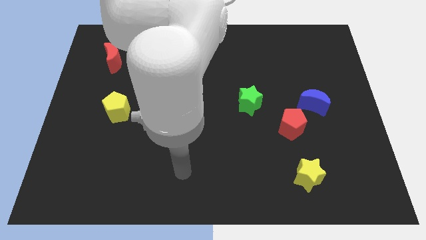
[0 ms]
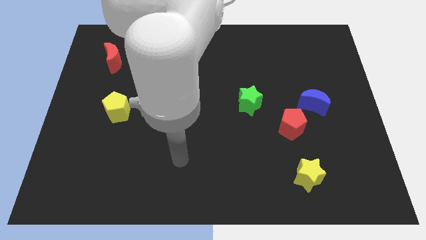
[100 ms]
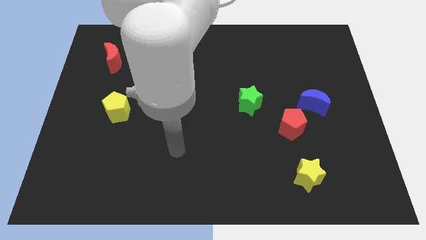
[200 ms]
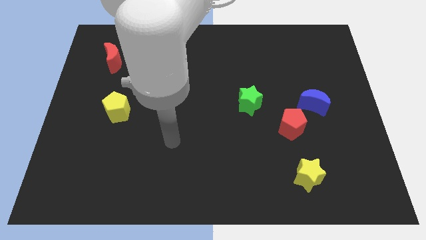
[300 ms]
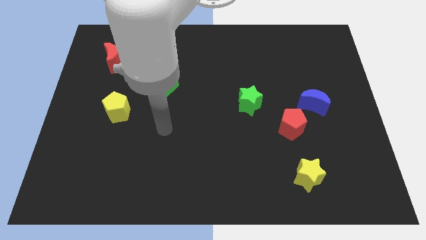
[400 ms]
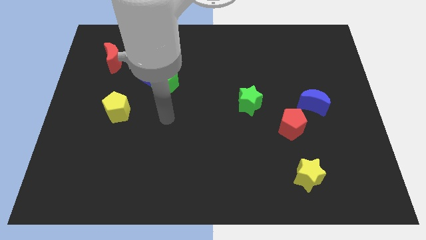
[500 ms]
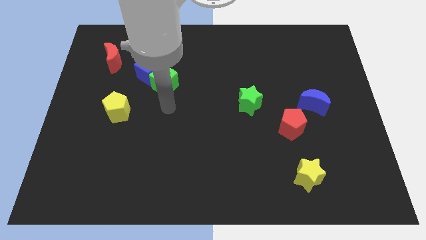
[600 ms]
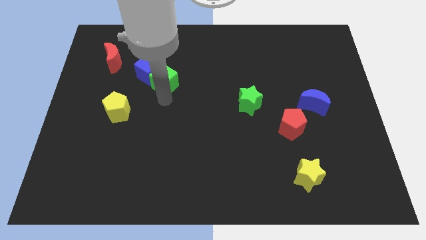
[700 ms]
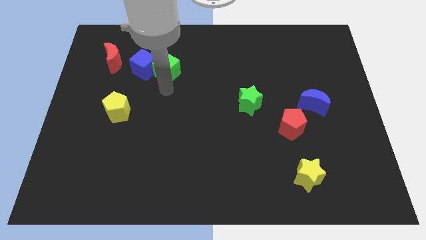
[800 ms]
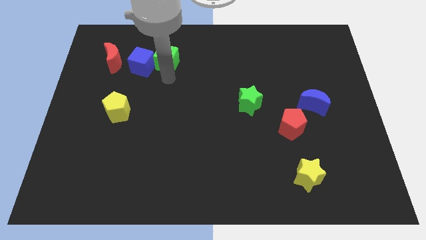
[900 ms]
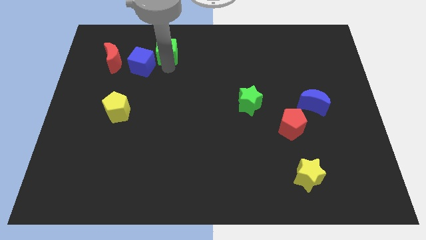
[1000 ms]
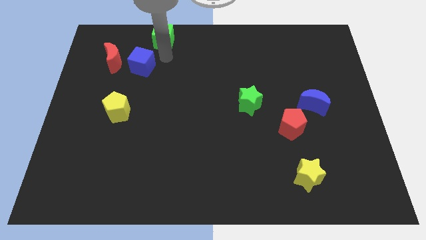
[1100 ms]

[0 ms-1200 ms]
separate the blue cube from the green cube

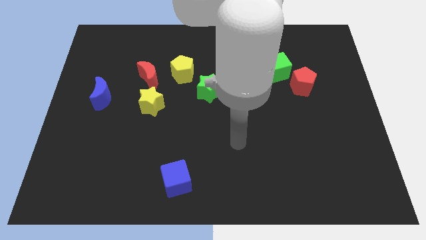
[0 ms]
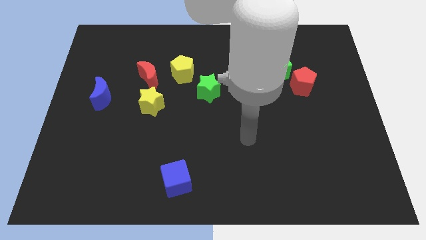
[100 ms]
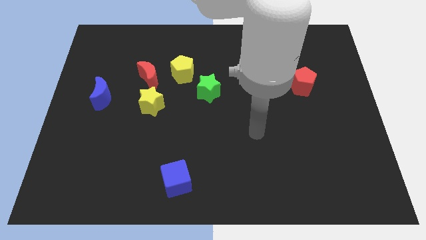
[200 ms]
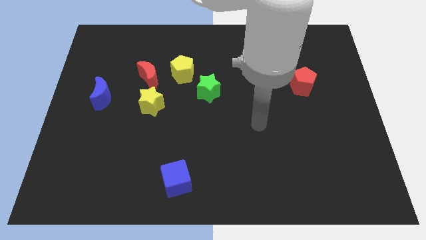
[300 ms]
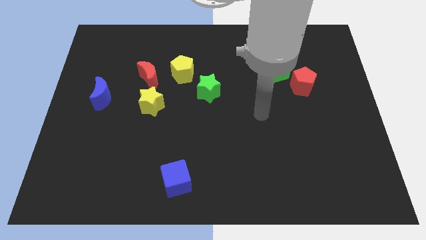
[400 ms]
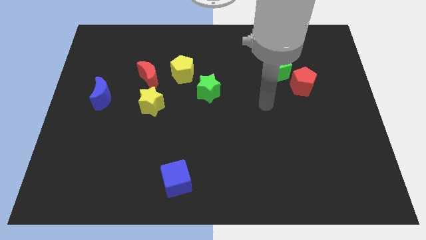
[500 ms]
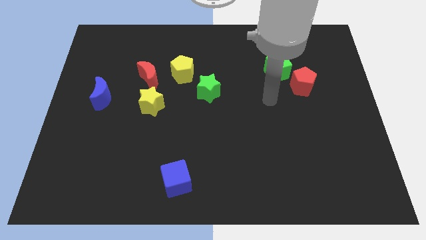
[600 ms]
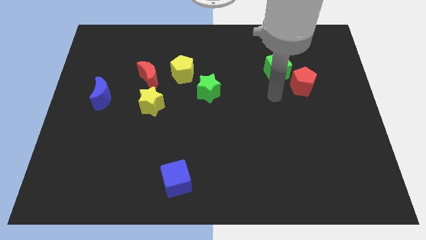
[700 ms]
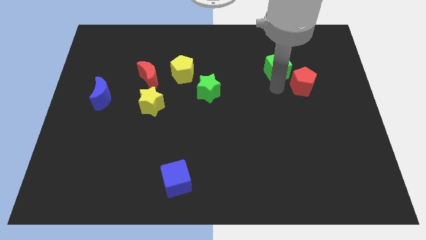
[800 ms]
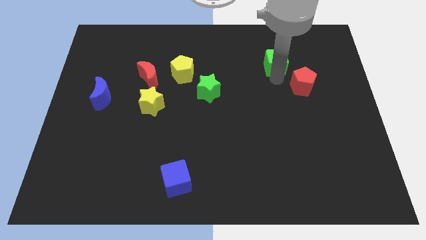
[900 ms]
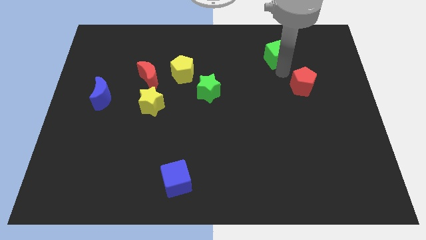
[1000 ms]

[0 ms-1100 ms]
separate the red pentagon from the green cube

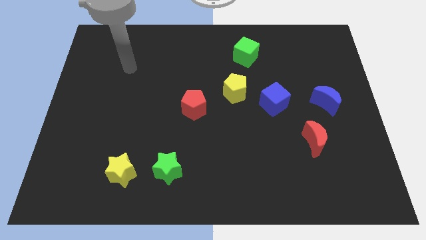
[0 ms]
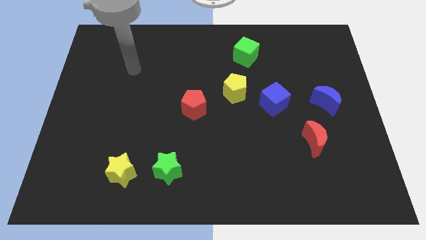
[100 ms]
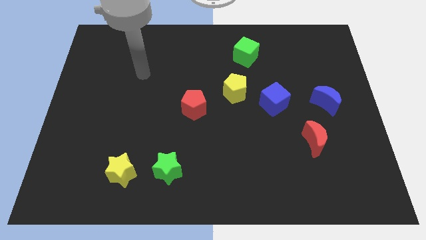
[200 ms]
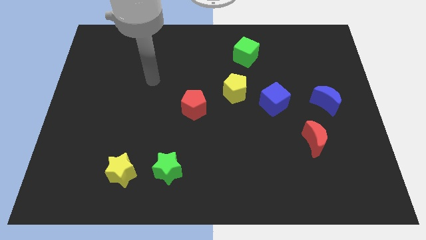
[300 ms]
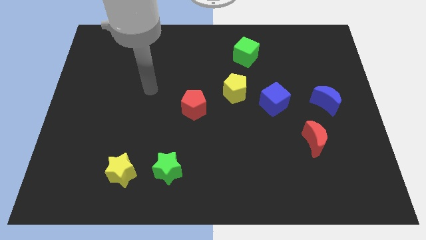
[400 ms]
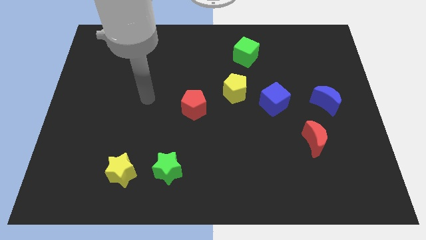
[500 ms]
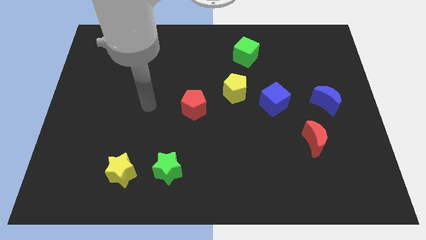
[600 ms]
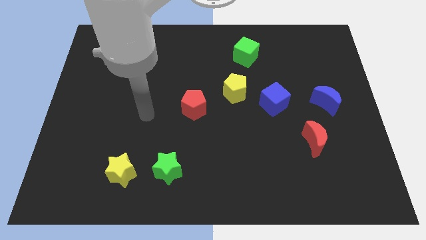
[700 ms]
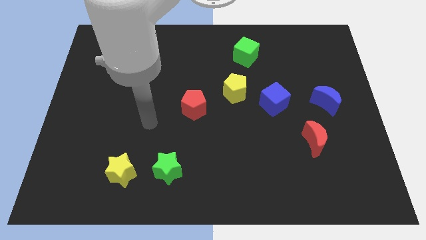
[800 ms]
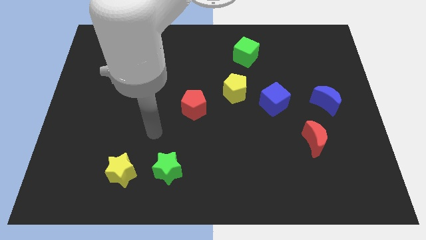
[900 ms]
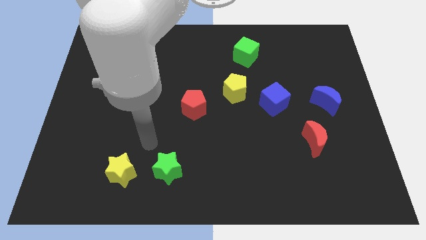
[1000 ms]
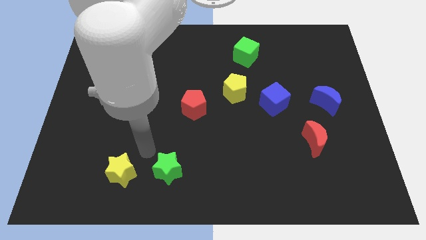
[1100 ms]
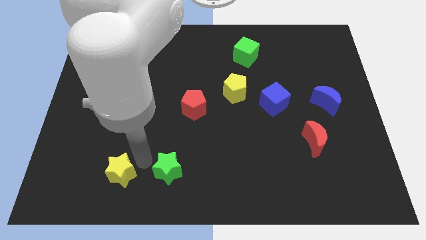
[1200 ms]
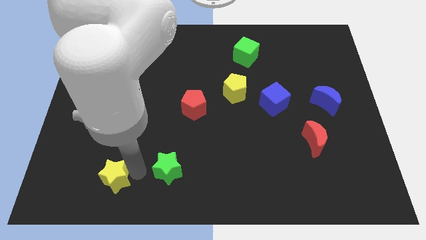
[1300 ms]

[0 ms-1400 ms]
move the green star away from the yellow star

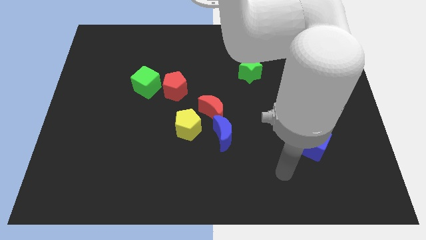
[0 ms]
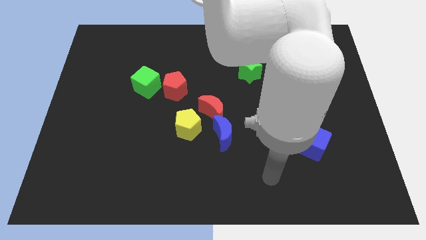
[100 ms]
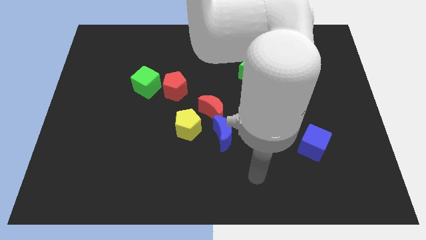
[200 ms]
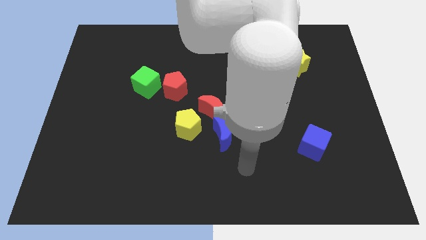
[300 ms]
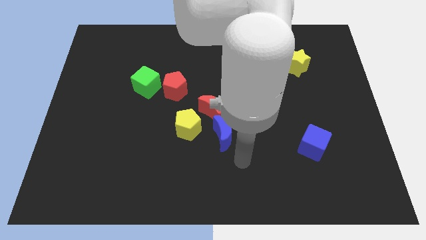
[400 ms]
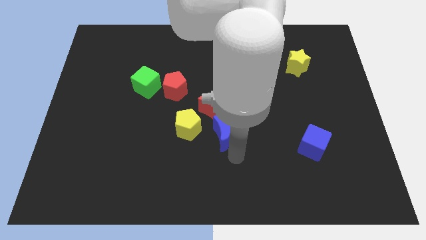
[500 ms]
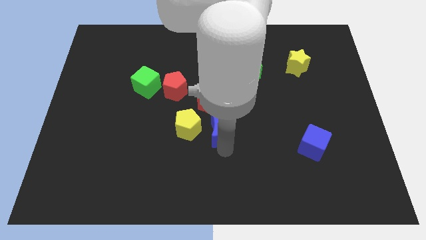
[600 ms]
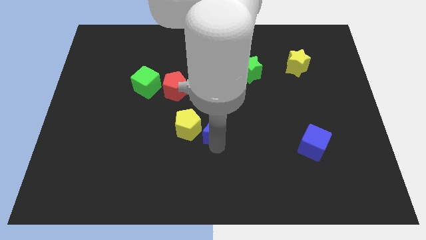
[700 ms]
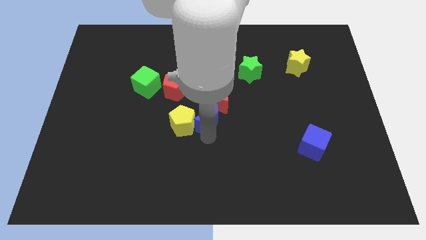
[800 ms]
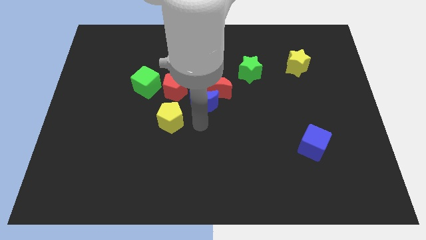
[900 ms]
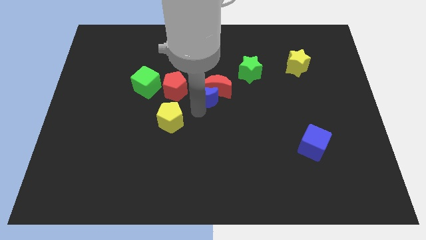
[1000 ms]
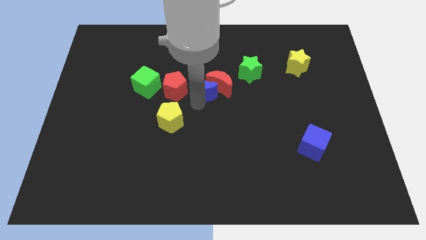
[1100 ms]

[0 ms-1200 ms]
move the red moon away from the blue moon and yellow pentagon

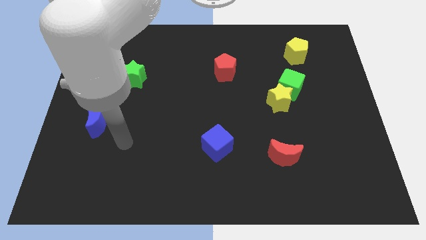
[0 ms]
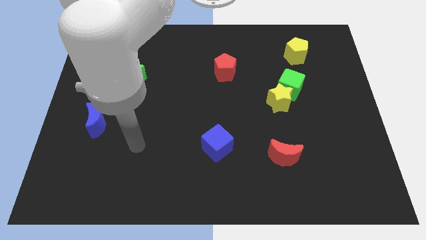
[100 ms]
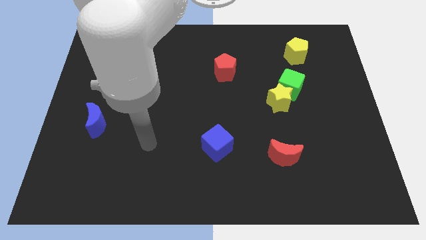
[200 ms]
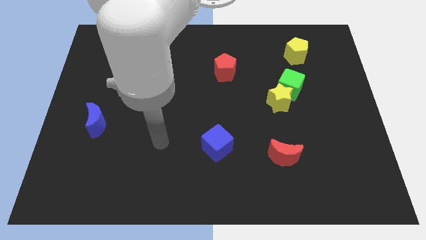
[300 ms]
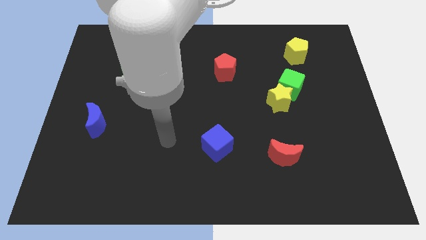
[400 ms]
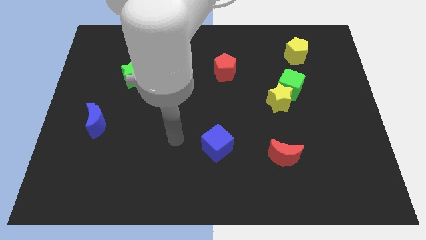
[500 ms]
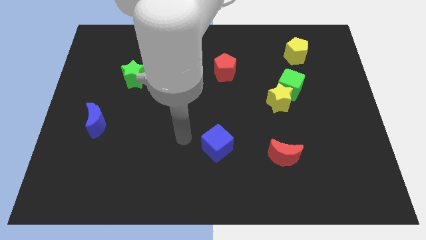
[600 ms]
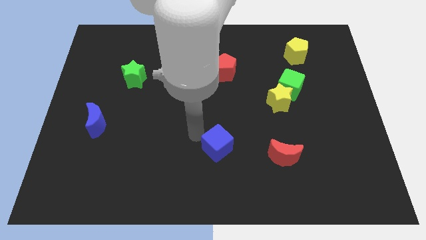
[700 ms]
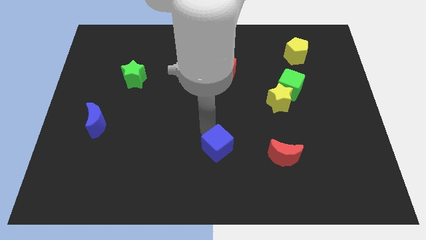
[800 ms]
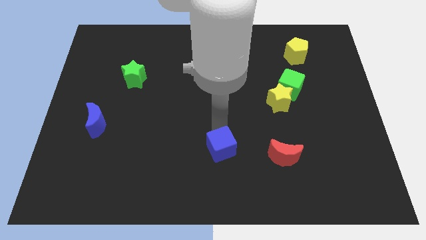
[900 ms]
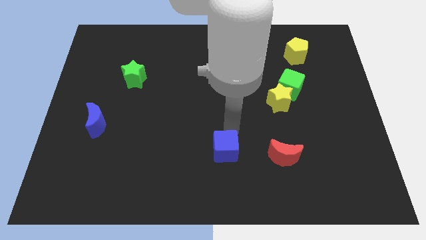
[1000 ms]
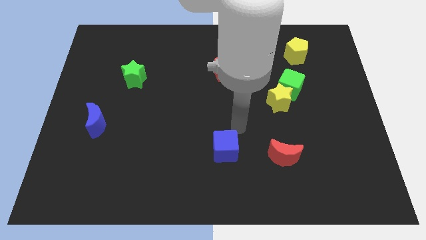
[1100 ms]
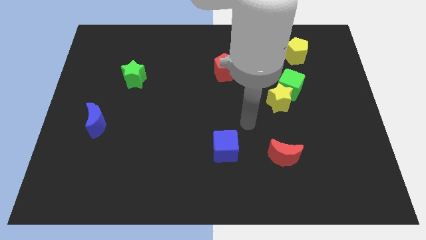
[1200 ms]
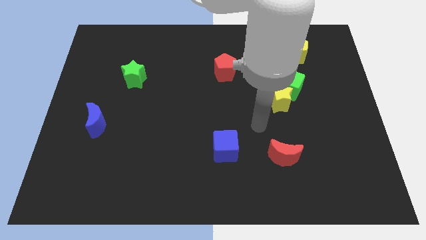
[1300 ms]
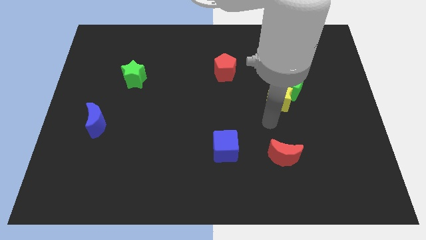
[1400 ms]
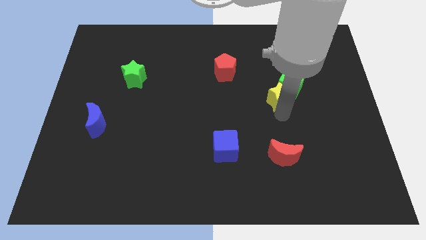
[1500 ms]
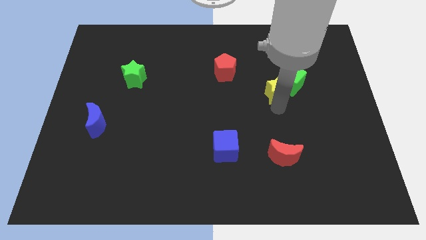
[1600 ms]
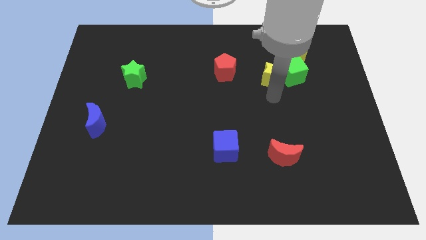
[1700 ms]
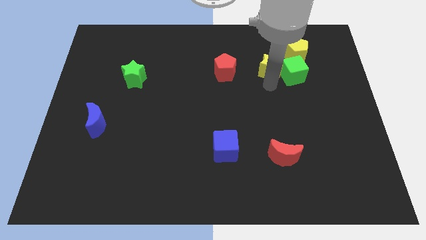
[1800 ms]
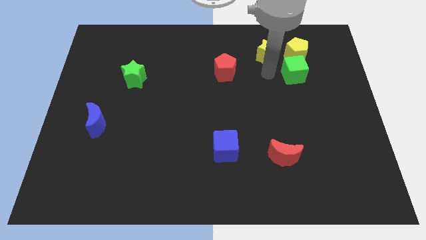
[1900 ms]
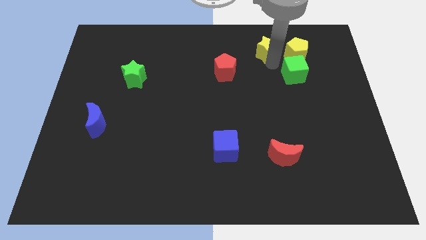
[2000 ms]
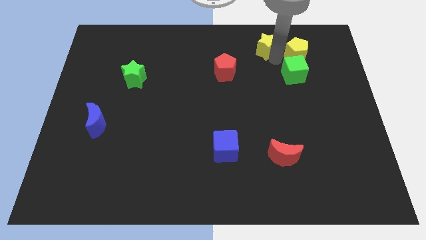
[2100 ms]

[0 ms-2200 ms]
move the green cube away from the yellow star

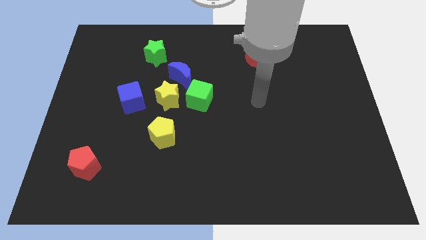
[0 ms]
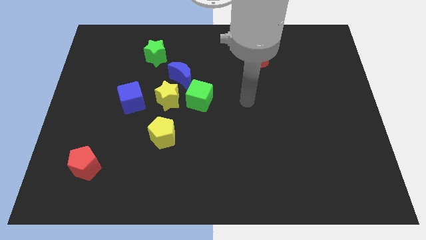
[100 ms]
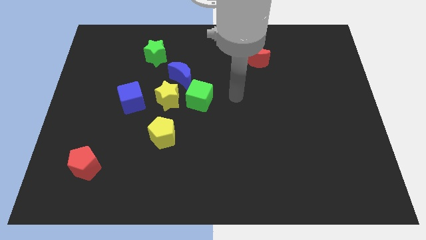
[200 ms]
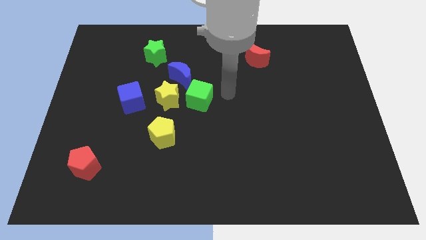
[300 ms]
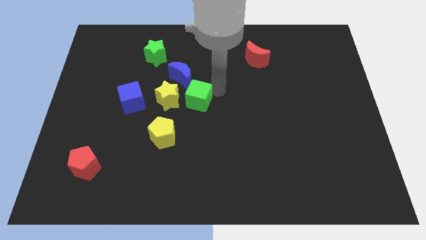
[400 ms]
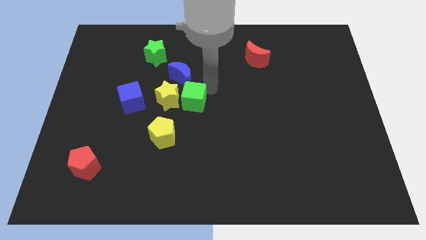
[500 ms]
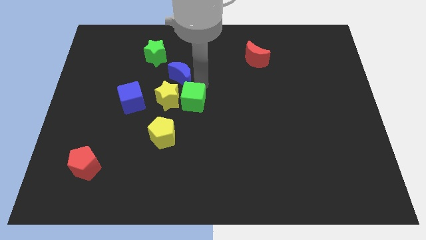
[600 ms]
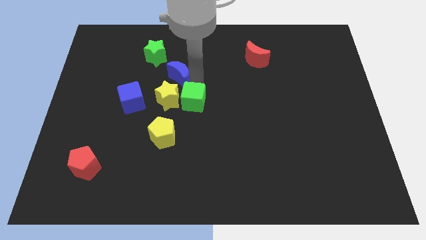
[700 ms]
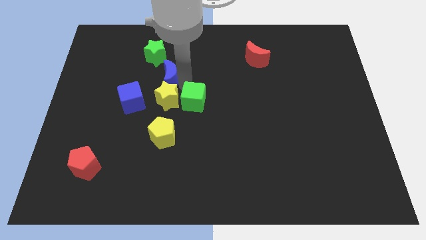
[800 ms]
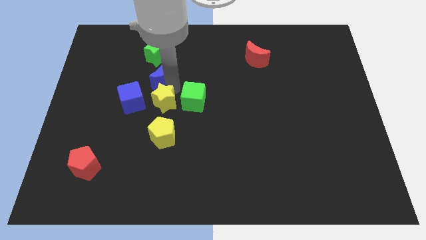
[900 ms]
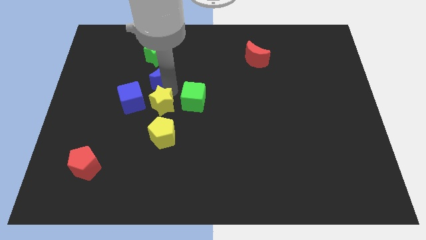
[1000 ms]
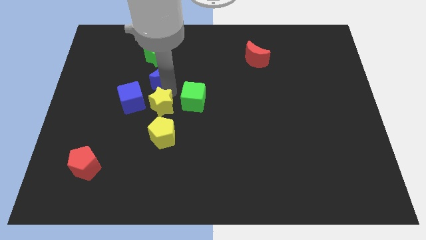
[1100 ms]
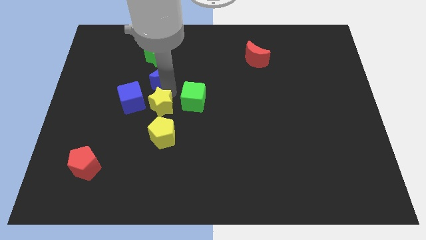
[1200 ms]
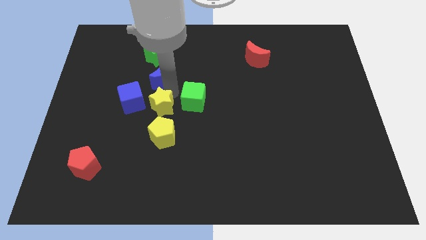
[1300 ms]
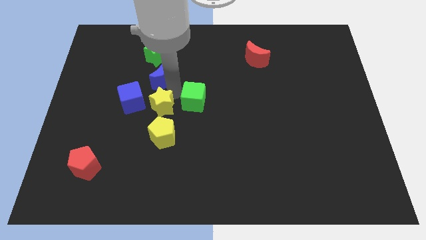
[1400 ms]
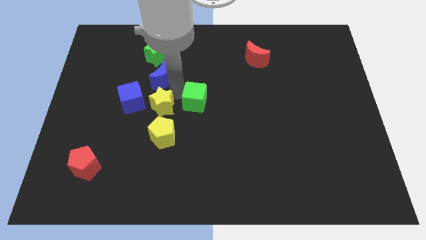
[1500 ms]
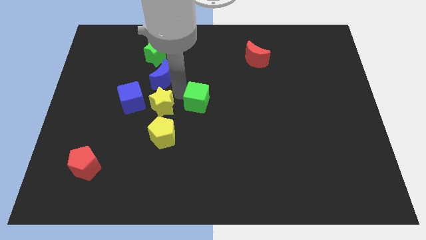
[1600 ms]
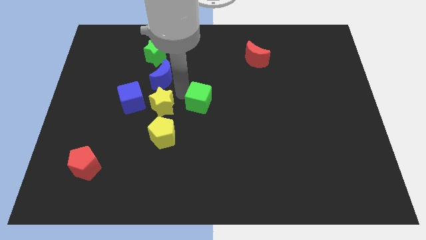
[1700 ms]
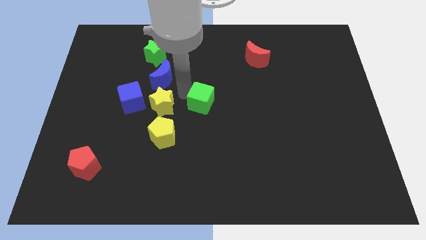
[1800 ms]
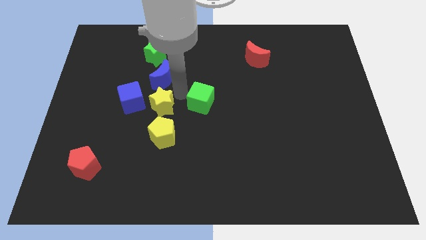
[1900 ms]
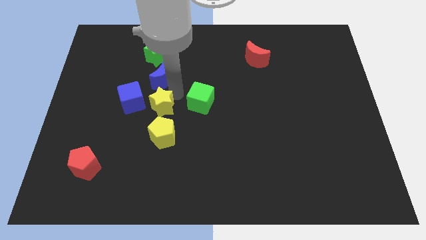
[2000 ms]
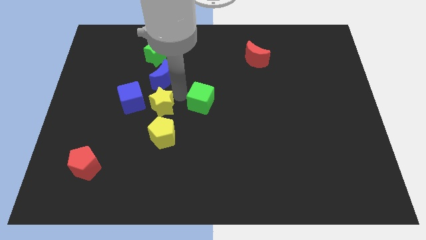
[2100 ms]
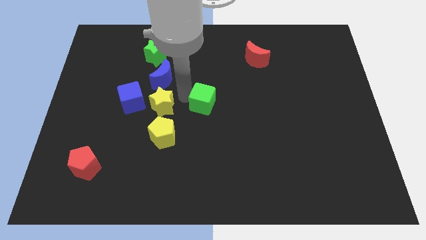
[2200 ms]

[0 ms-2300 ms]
separate the green cube from the yellow star and blue moon
